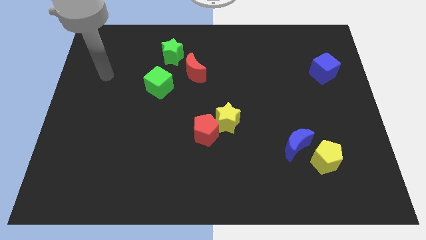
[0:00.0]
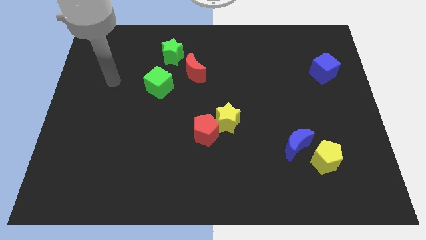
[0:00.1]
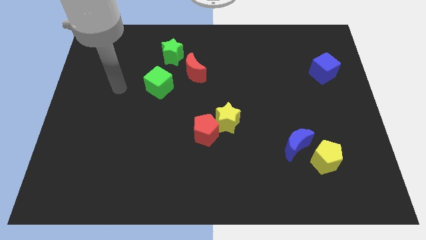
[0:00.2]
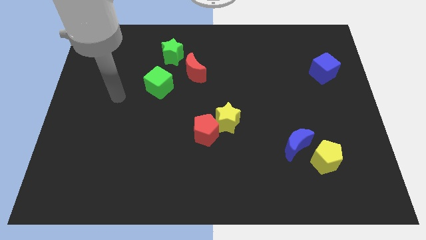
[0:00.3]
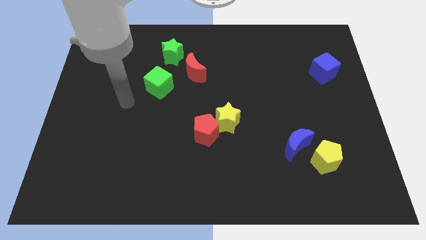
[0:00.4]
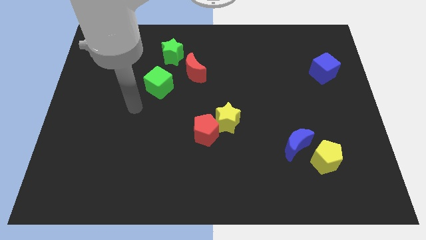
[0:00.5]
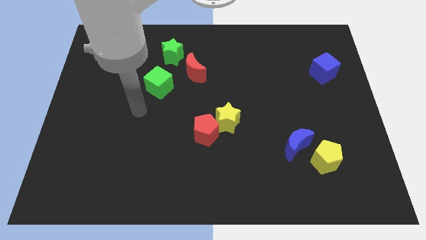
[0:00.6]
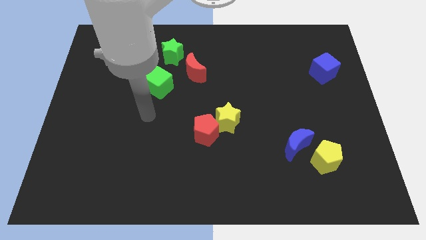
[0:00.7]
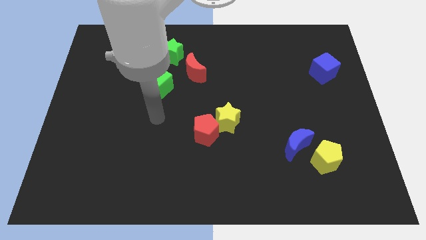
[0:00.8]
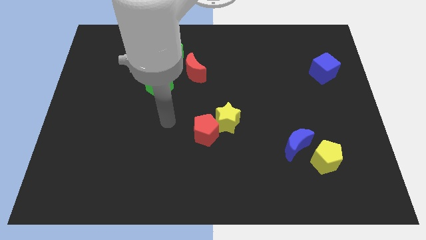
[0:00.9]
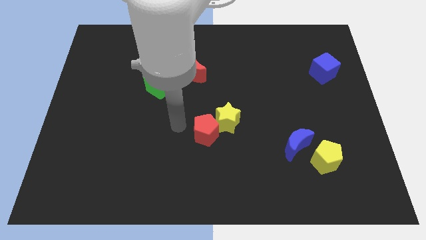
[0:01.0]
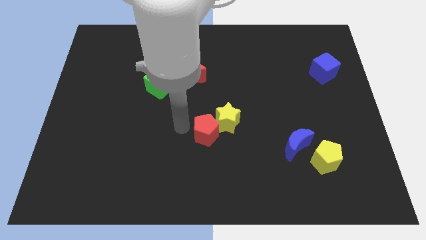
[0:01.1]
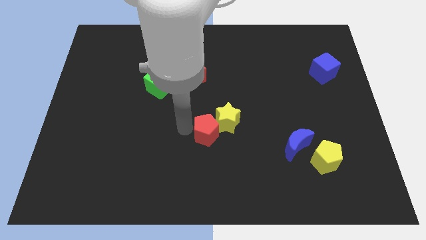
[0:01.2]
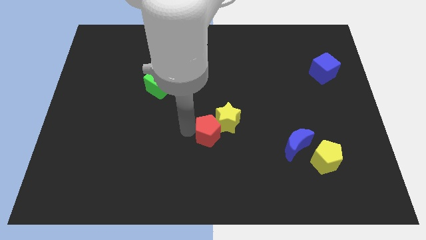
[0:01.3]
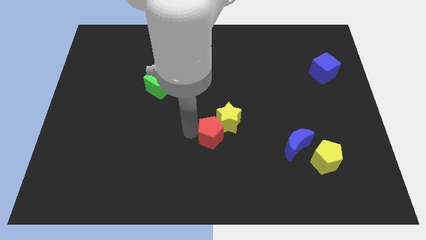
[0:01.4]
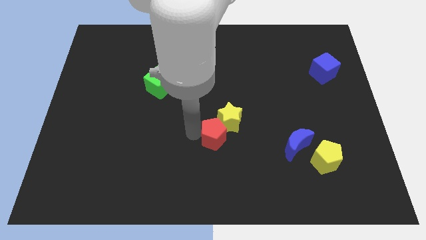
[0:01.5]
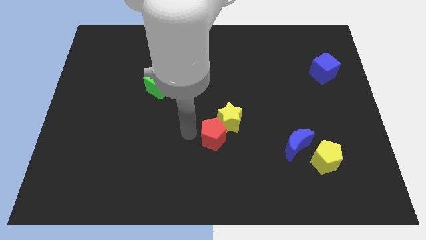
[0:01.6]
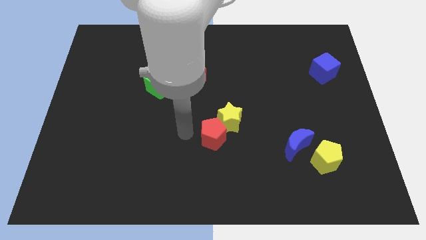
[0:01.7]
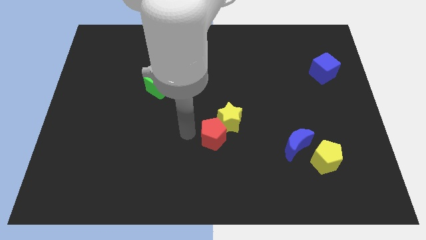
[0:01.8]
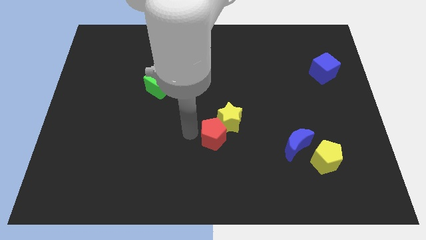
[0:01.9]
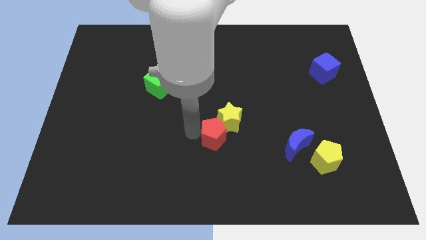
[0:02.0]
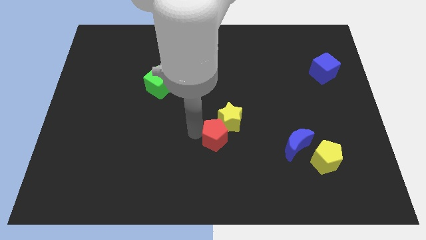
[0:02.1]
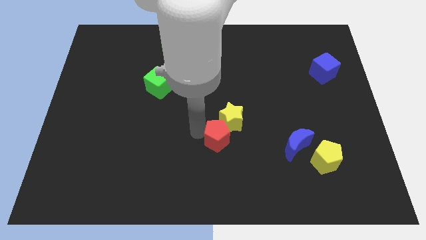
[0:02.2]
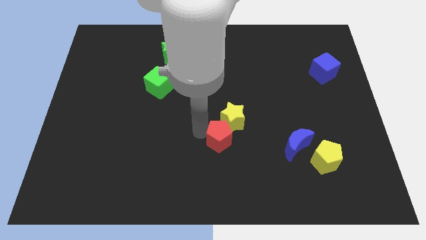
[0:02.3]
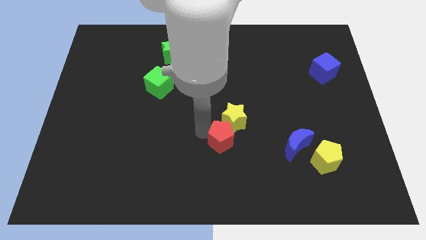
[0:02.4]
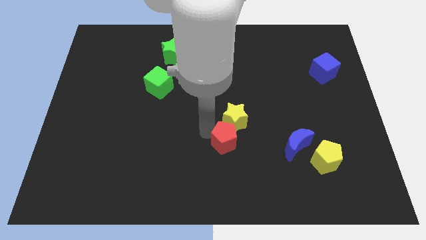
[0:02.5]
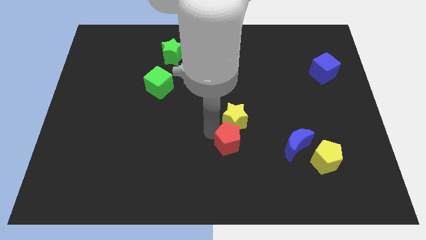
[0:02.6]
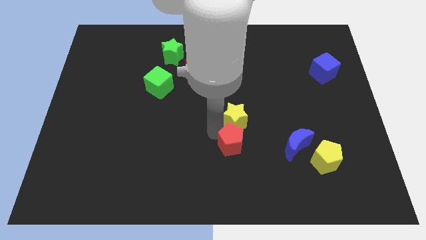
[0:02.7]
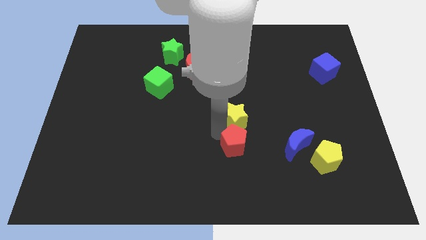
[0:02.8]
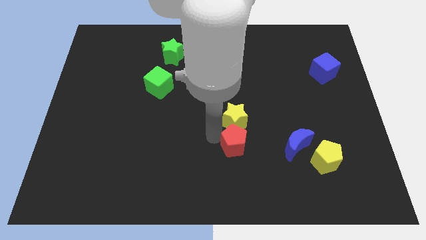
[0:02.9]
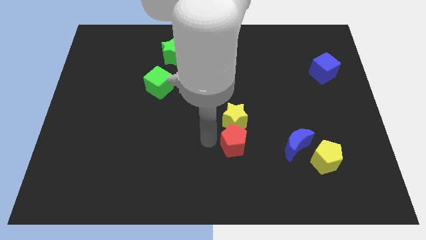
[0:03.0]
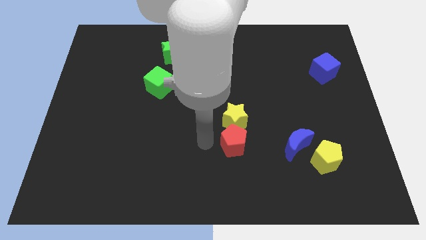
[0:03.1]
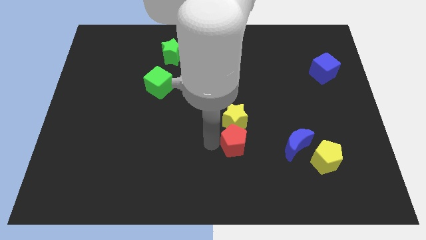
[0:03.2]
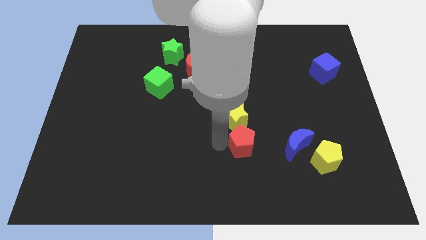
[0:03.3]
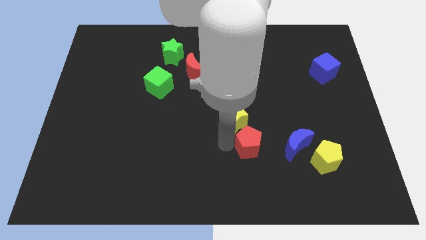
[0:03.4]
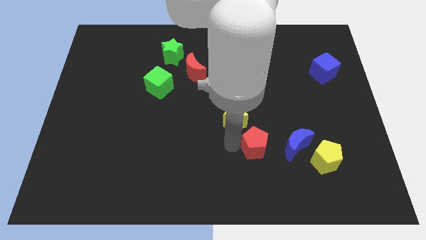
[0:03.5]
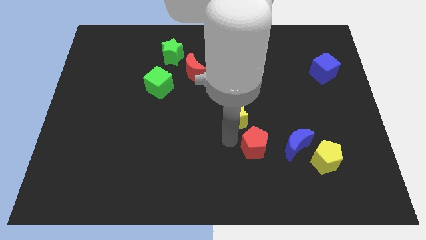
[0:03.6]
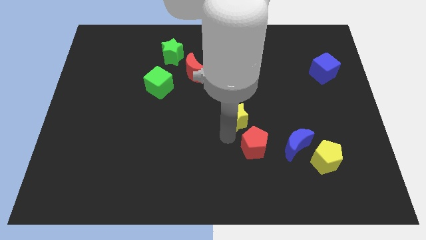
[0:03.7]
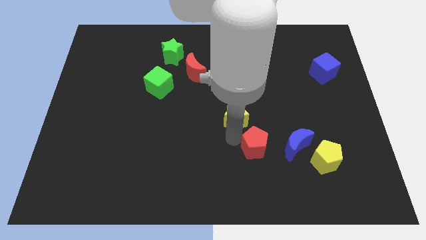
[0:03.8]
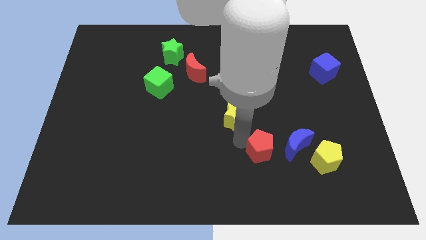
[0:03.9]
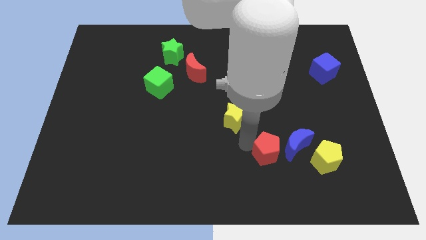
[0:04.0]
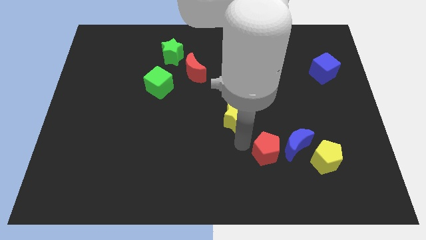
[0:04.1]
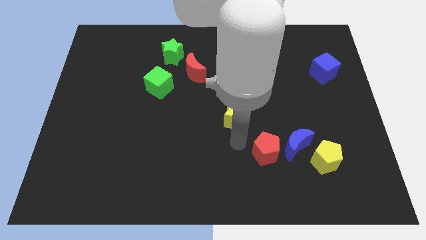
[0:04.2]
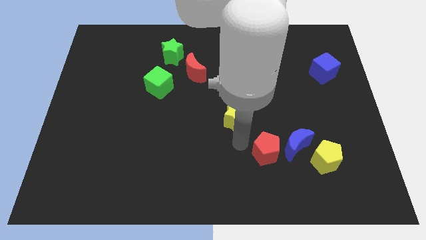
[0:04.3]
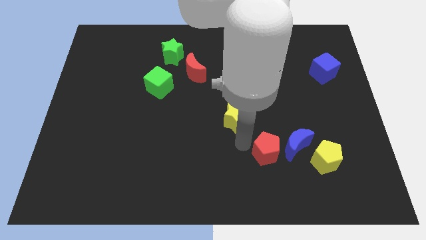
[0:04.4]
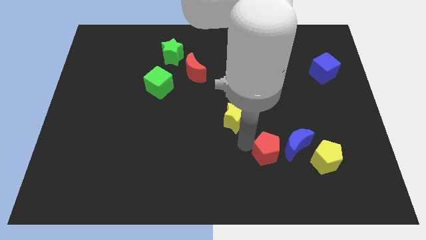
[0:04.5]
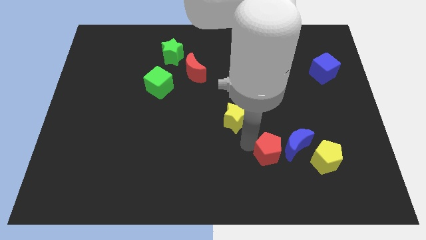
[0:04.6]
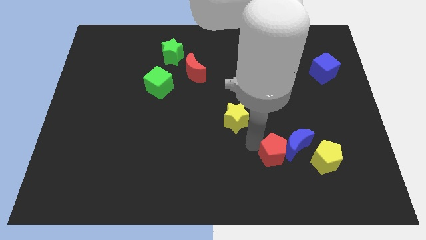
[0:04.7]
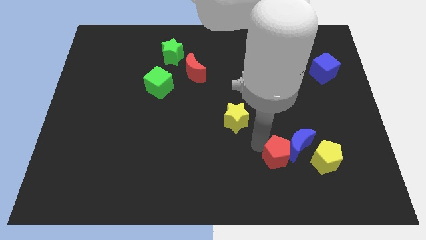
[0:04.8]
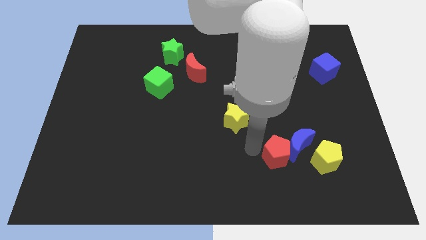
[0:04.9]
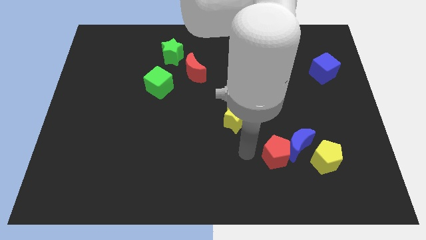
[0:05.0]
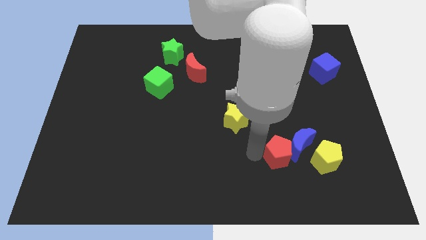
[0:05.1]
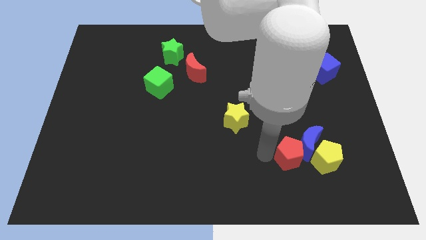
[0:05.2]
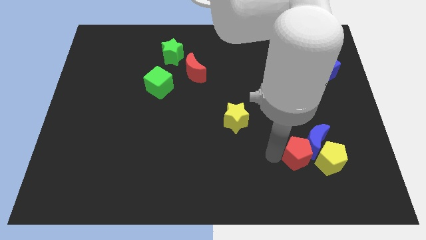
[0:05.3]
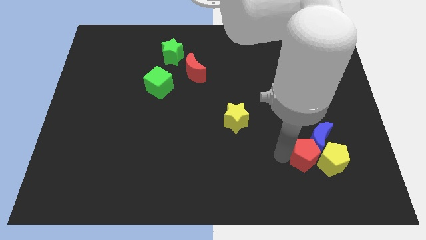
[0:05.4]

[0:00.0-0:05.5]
put the red pentagon to the yellow pentagon

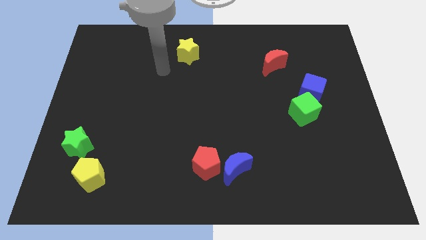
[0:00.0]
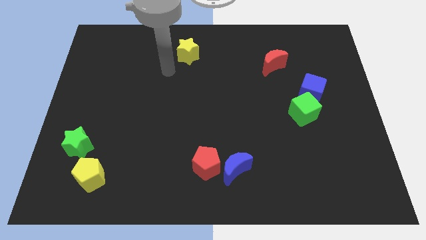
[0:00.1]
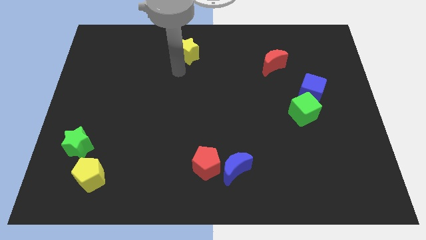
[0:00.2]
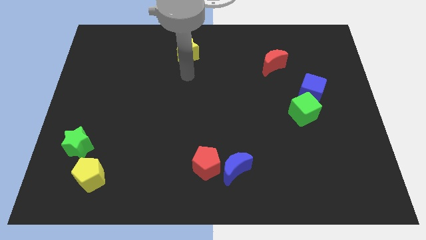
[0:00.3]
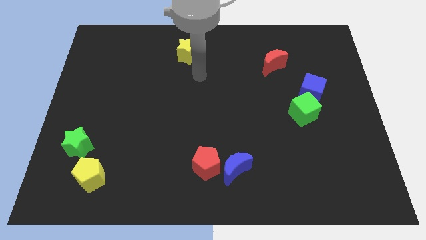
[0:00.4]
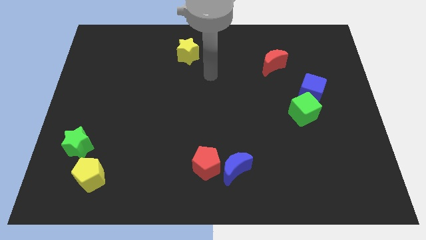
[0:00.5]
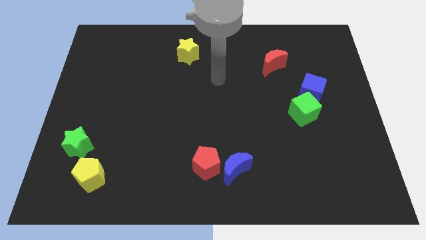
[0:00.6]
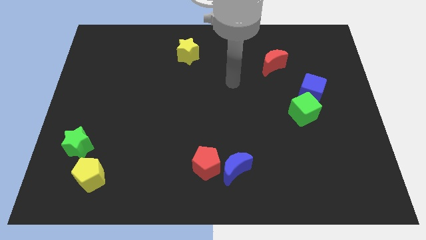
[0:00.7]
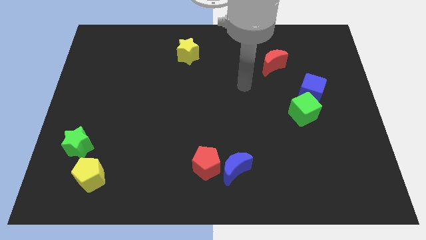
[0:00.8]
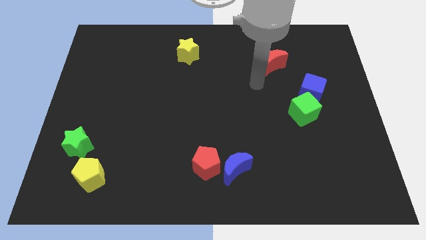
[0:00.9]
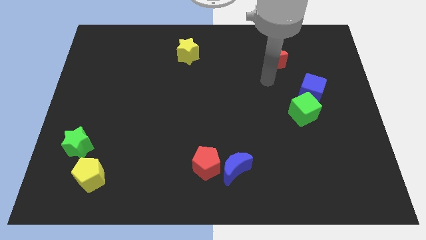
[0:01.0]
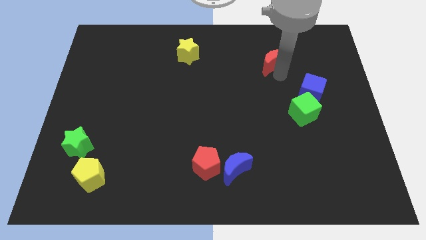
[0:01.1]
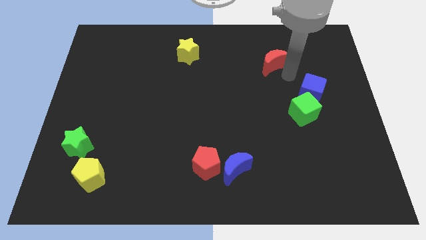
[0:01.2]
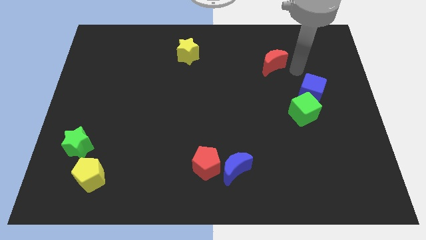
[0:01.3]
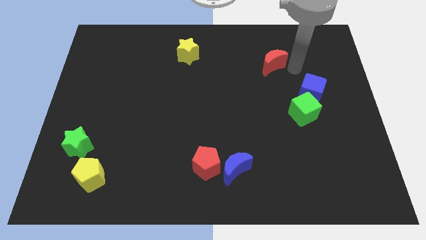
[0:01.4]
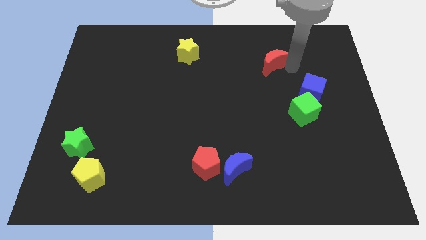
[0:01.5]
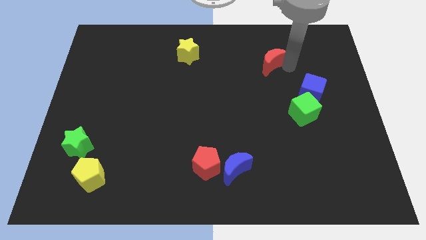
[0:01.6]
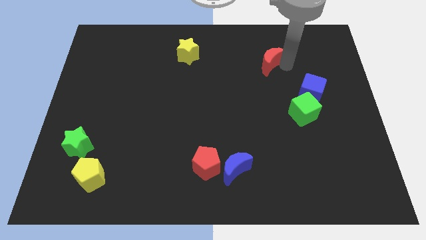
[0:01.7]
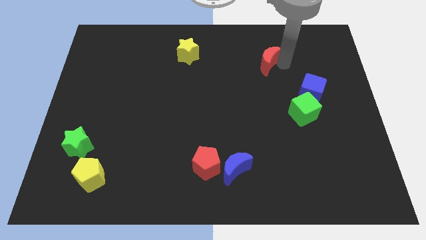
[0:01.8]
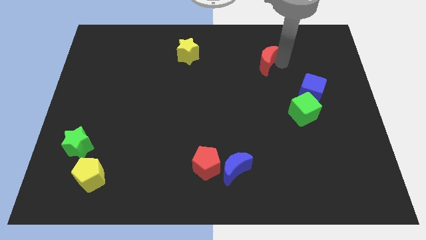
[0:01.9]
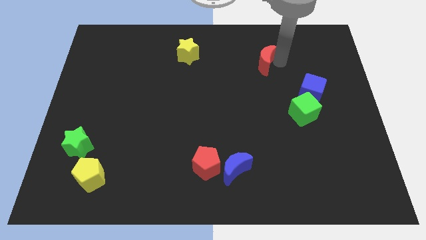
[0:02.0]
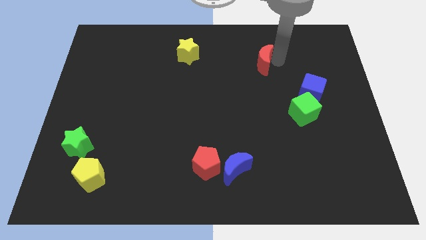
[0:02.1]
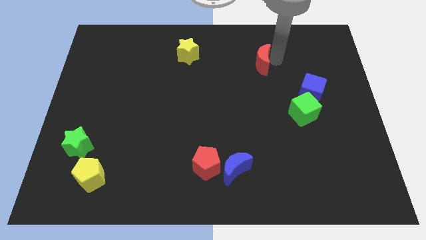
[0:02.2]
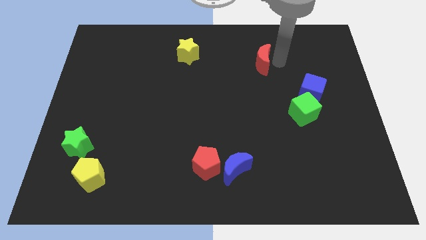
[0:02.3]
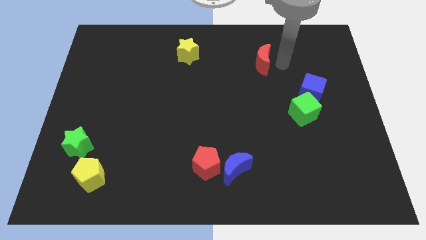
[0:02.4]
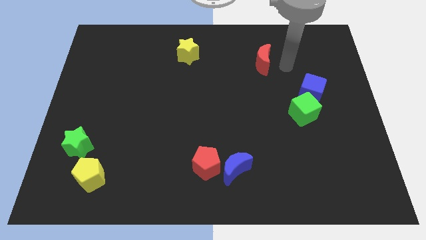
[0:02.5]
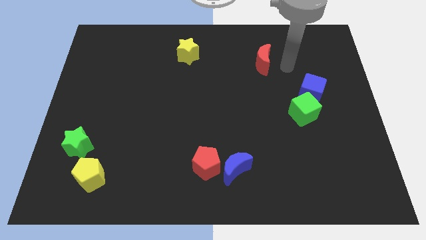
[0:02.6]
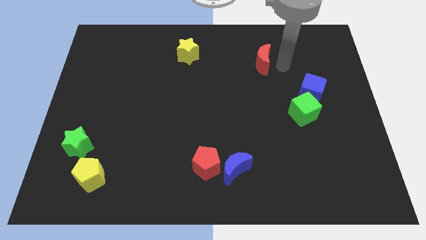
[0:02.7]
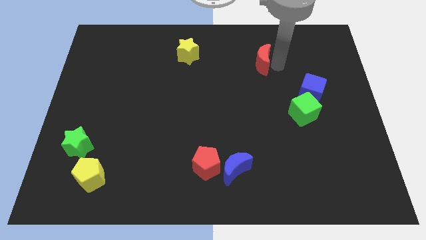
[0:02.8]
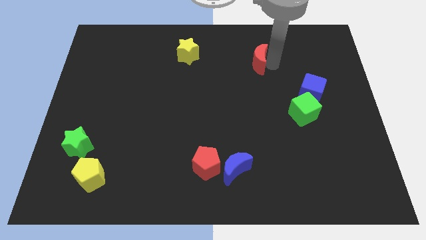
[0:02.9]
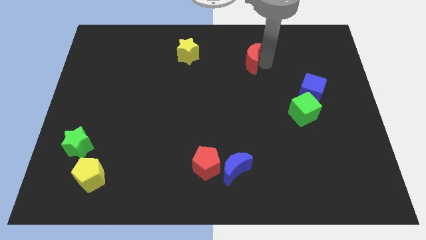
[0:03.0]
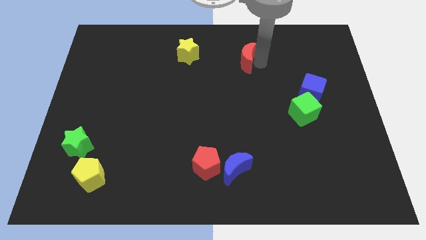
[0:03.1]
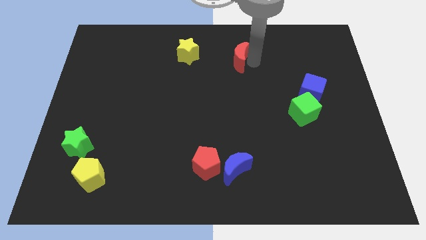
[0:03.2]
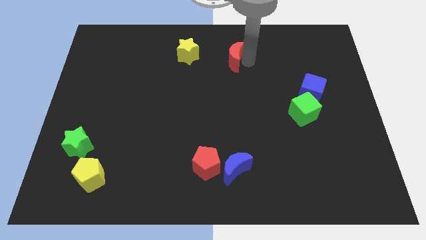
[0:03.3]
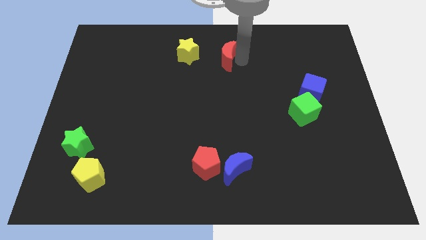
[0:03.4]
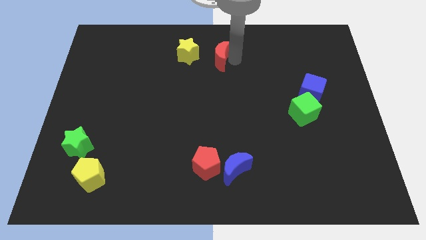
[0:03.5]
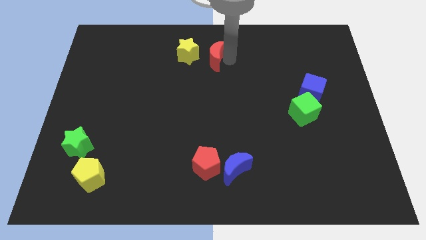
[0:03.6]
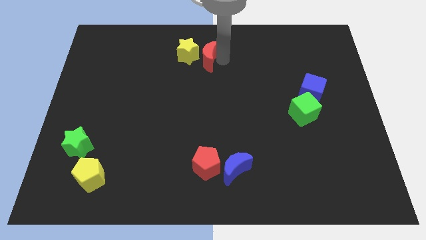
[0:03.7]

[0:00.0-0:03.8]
push the red moon close to the yellow star
